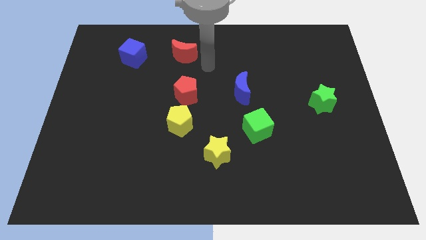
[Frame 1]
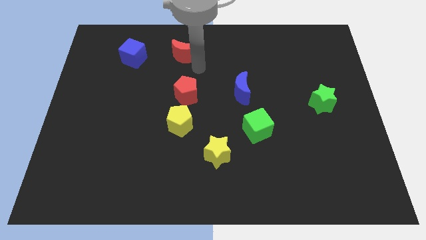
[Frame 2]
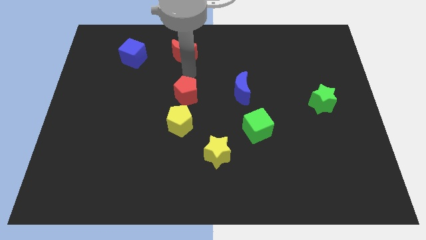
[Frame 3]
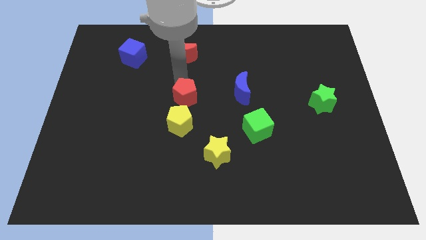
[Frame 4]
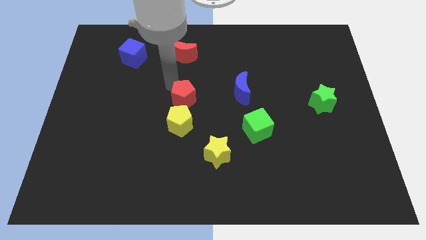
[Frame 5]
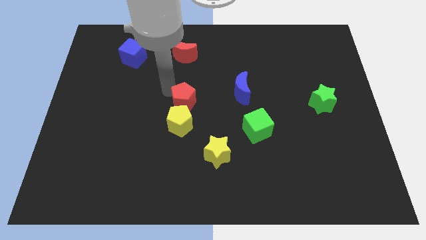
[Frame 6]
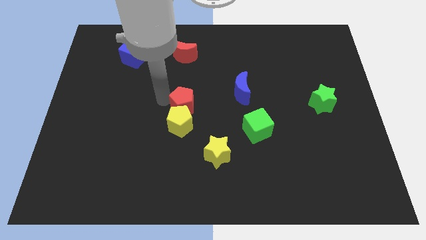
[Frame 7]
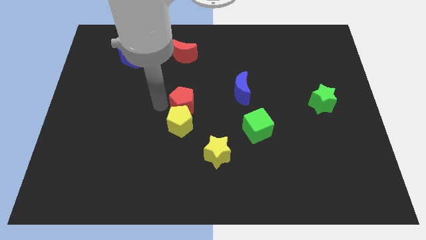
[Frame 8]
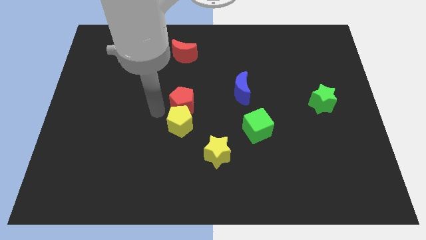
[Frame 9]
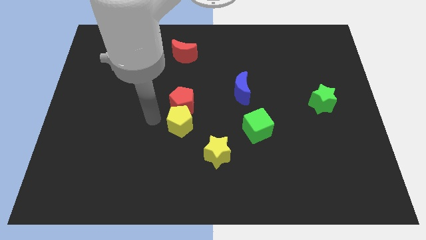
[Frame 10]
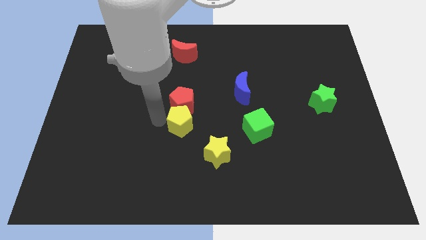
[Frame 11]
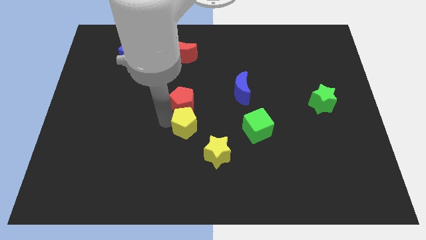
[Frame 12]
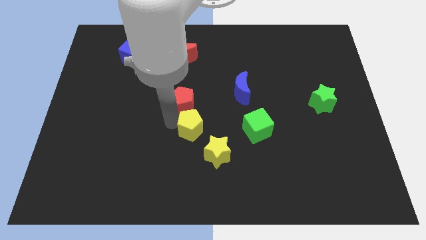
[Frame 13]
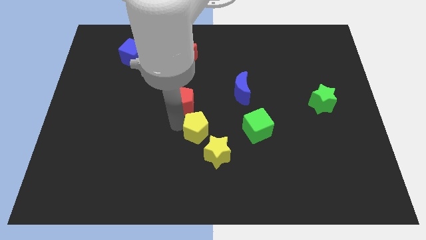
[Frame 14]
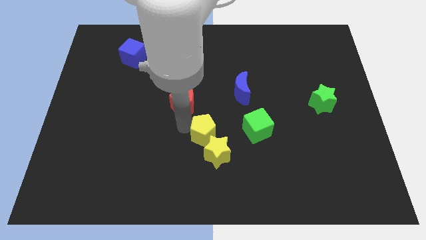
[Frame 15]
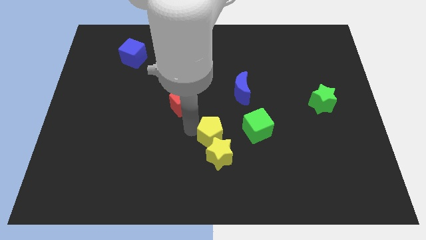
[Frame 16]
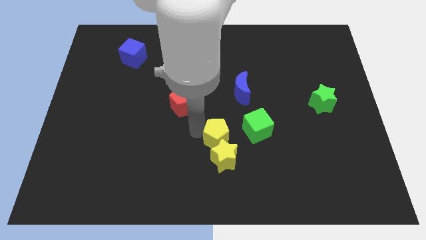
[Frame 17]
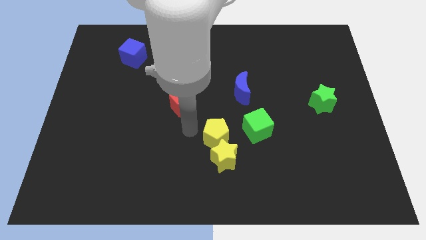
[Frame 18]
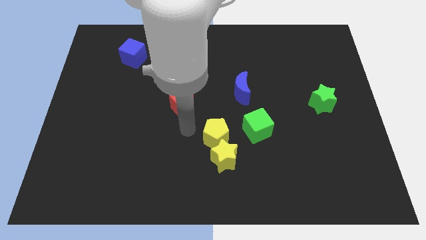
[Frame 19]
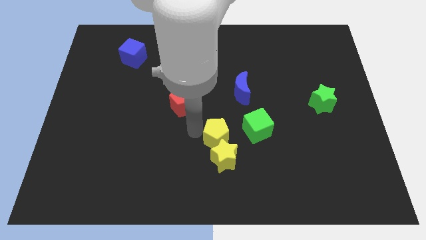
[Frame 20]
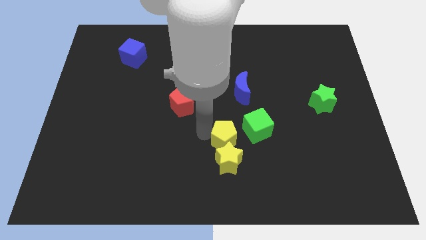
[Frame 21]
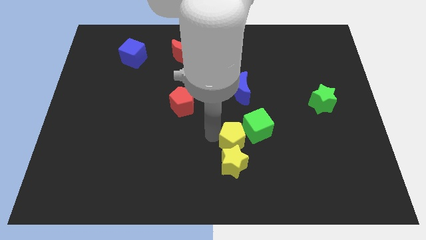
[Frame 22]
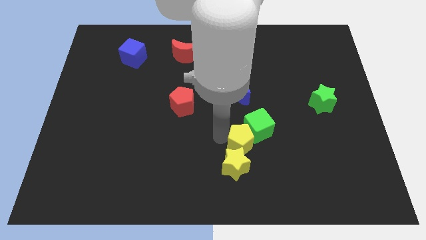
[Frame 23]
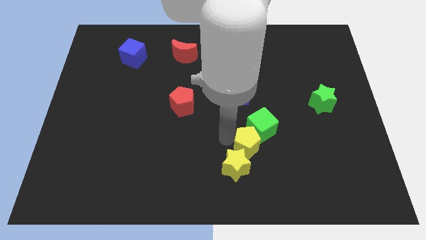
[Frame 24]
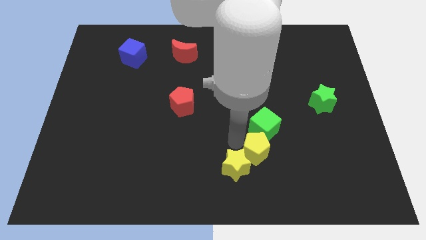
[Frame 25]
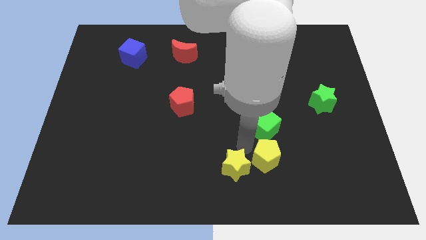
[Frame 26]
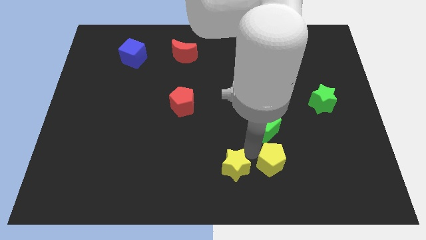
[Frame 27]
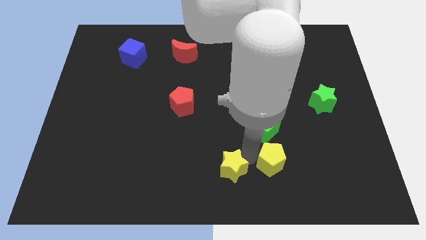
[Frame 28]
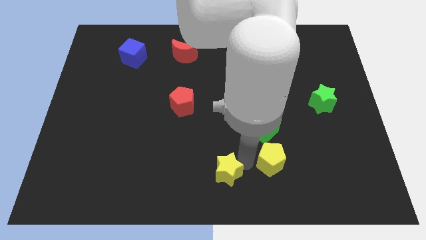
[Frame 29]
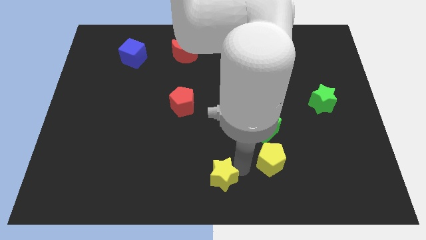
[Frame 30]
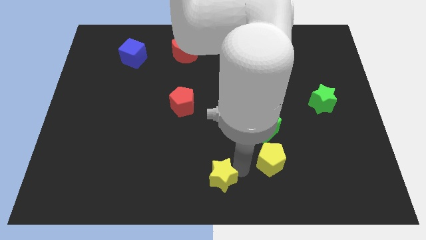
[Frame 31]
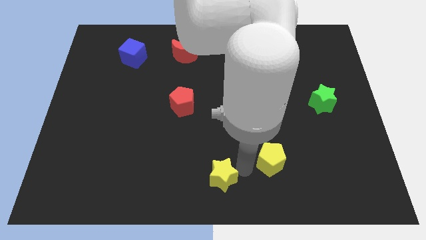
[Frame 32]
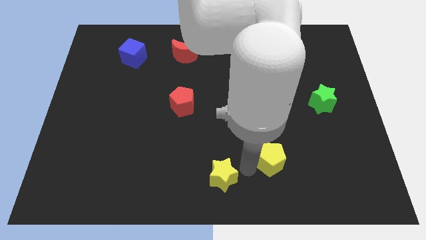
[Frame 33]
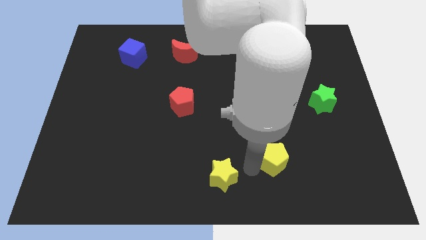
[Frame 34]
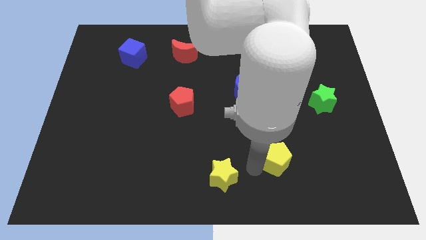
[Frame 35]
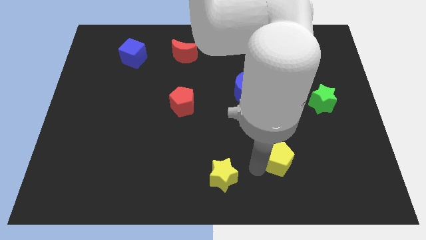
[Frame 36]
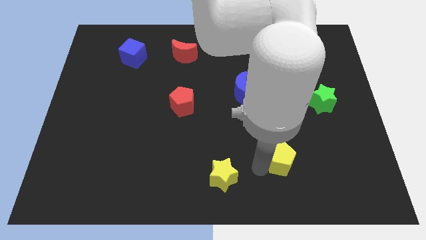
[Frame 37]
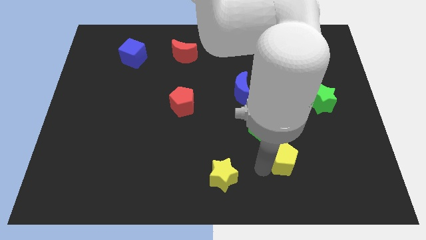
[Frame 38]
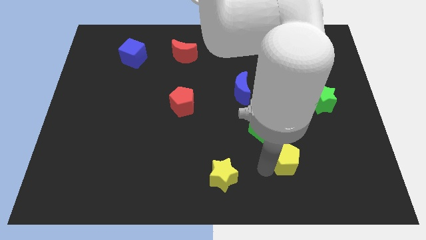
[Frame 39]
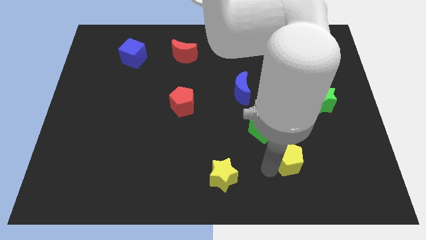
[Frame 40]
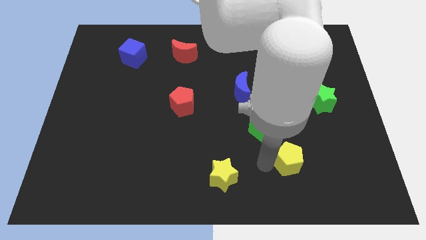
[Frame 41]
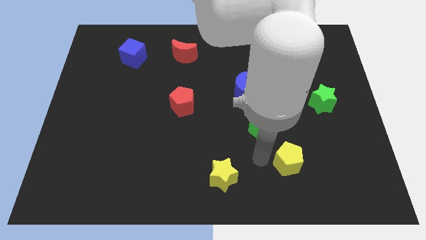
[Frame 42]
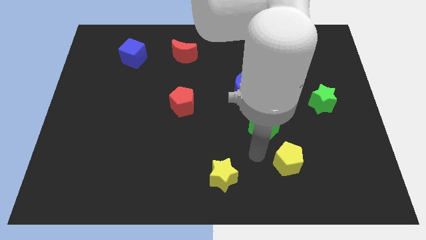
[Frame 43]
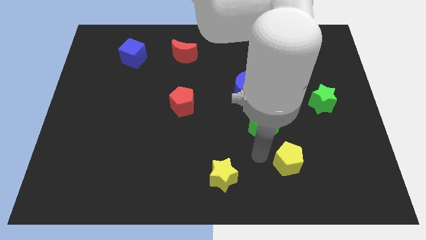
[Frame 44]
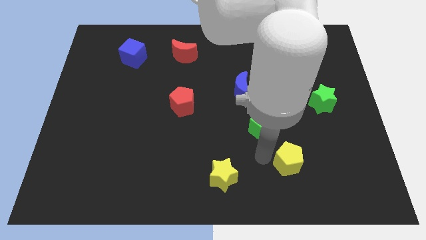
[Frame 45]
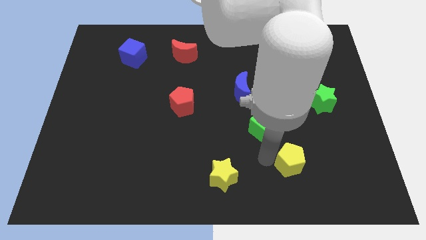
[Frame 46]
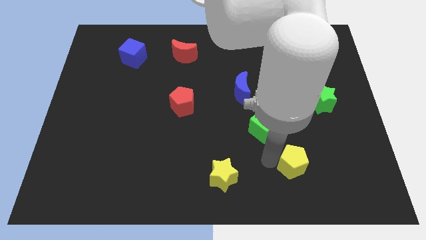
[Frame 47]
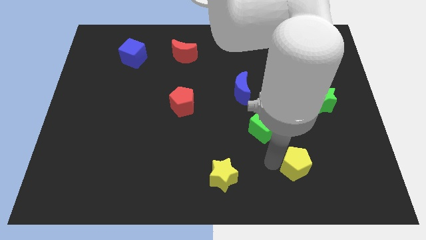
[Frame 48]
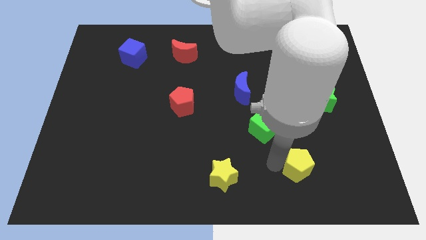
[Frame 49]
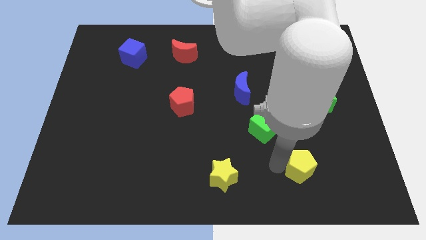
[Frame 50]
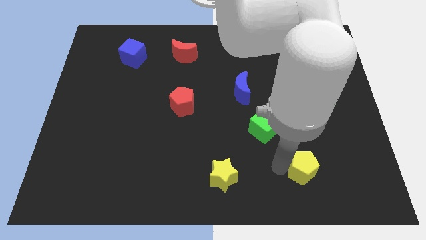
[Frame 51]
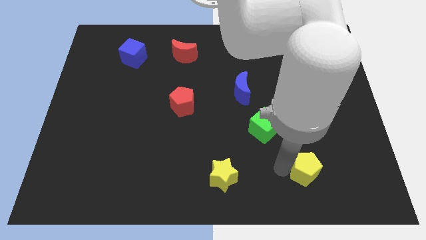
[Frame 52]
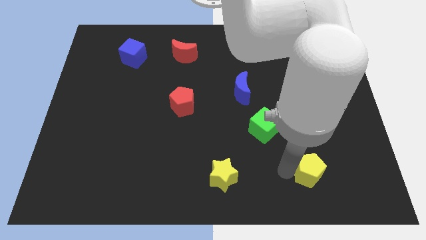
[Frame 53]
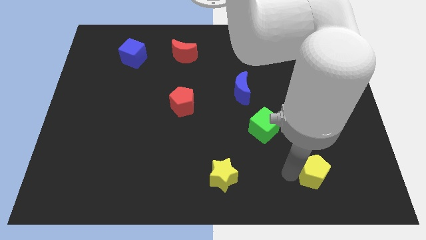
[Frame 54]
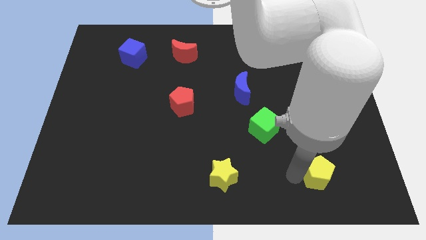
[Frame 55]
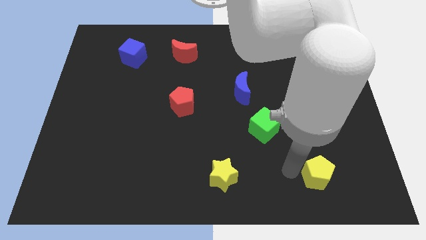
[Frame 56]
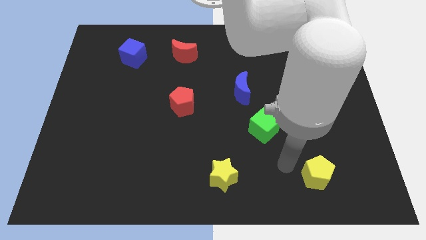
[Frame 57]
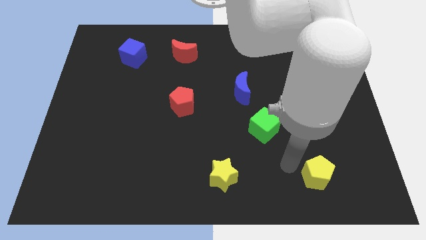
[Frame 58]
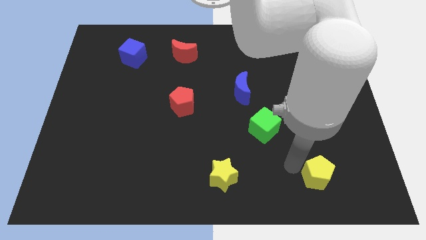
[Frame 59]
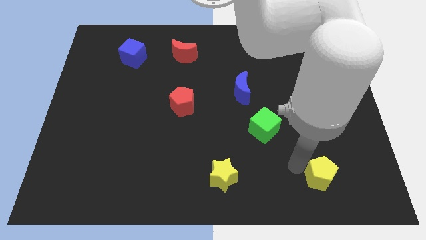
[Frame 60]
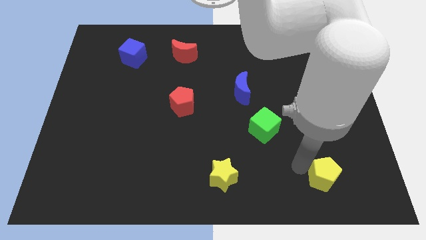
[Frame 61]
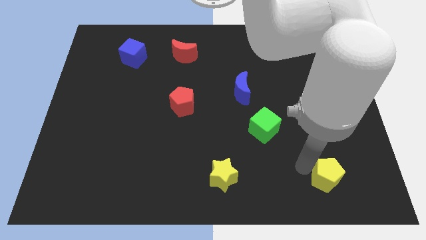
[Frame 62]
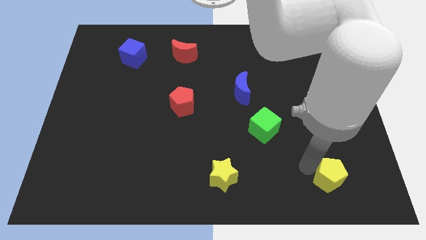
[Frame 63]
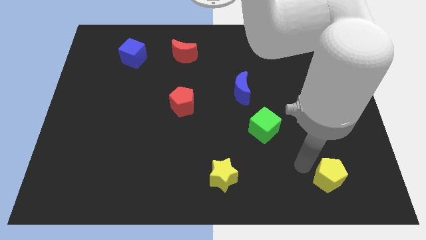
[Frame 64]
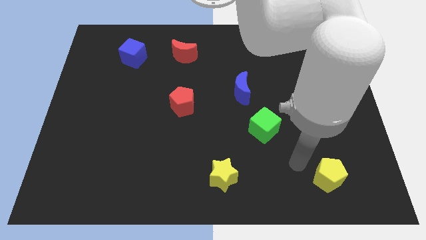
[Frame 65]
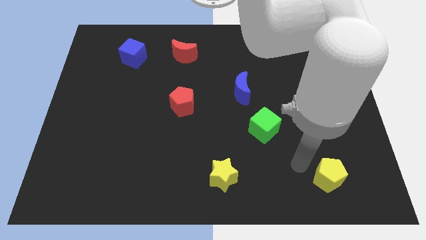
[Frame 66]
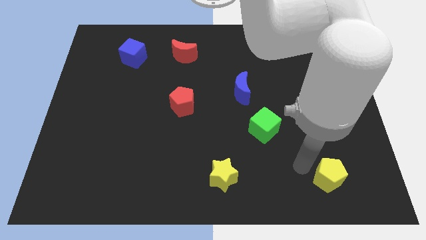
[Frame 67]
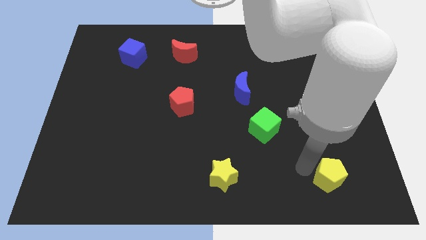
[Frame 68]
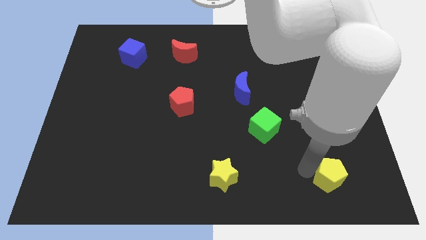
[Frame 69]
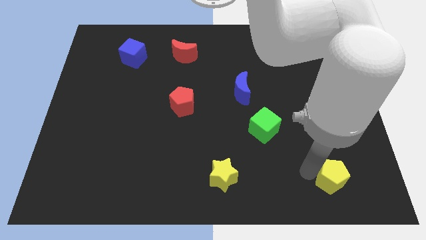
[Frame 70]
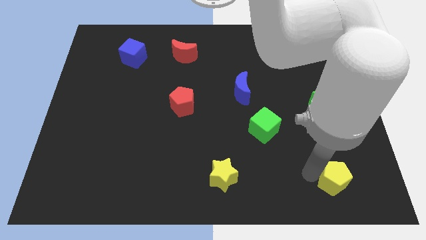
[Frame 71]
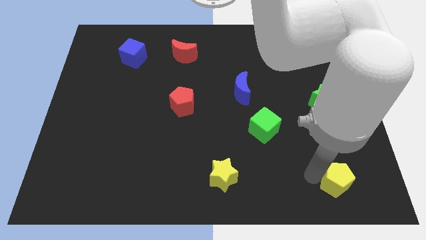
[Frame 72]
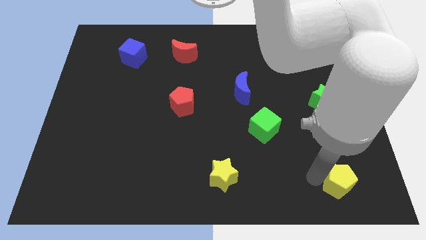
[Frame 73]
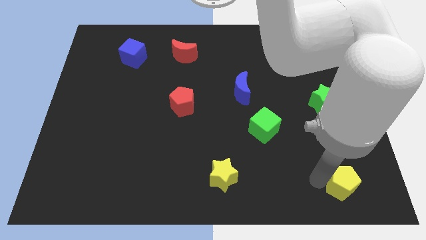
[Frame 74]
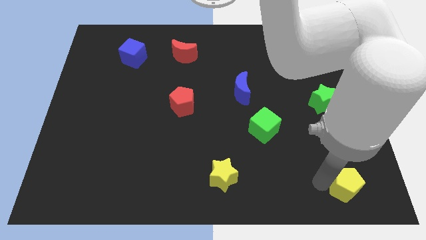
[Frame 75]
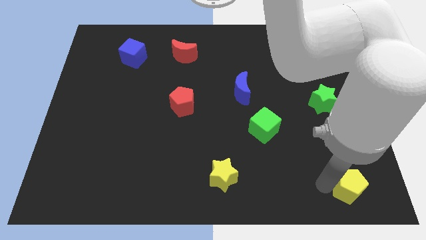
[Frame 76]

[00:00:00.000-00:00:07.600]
push the yellow pentagon to the lower right corner
